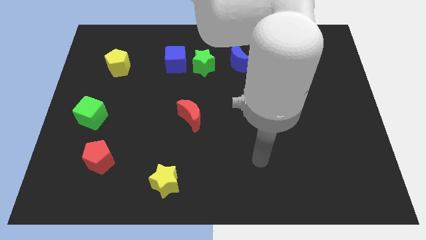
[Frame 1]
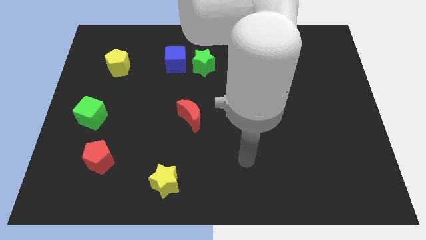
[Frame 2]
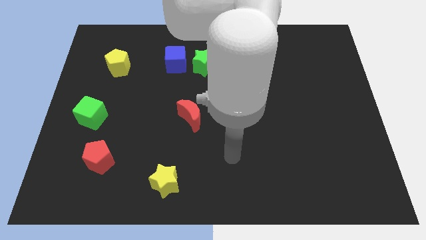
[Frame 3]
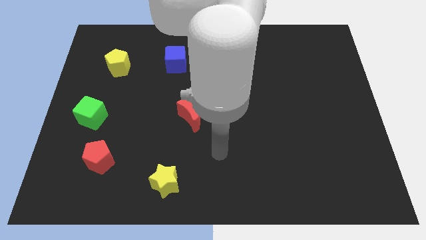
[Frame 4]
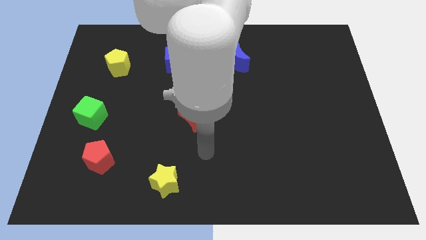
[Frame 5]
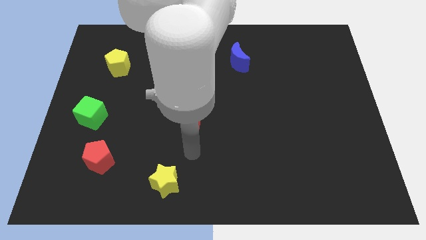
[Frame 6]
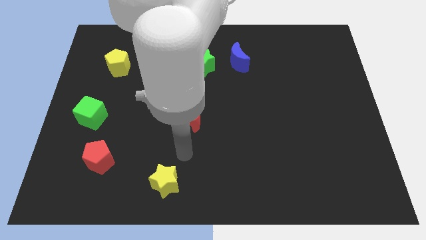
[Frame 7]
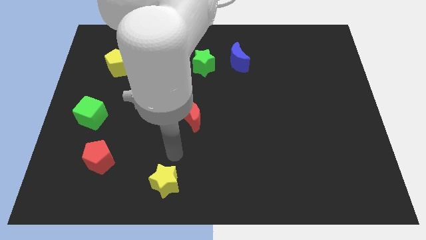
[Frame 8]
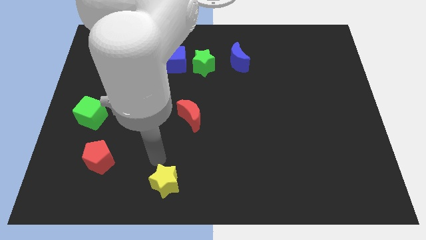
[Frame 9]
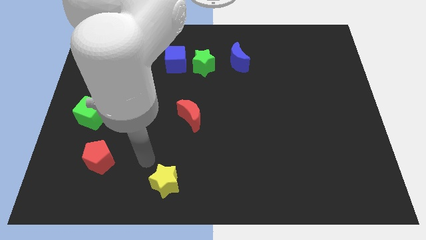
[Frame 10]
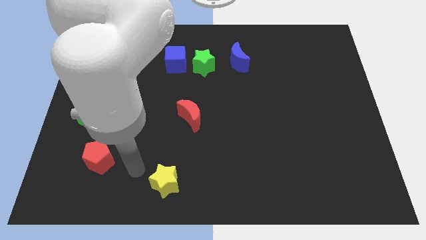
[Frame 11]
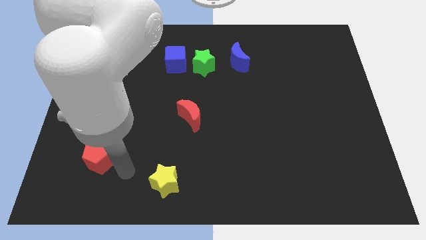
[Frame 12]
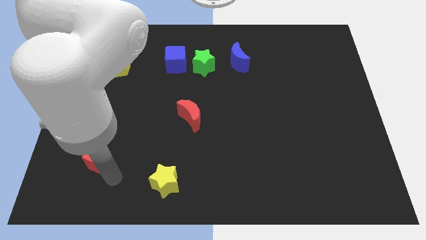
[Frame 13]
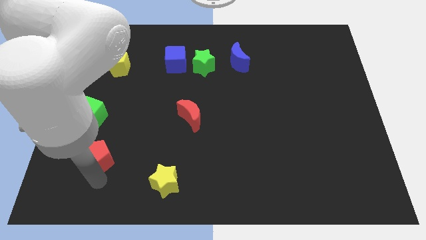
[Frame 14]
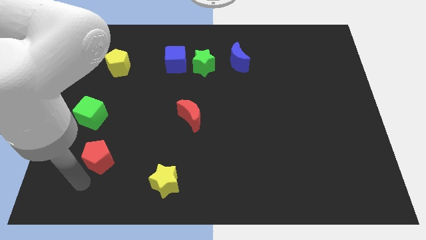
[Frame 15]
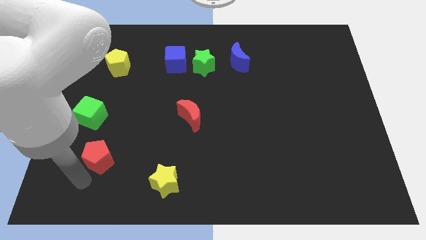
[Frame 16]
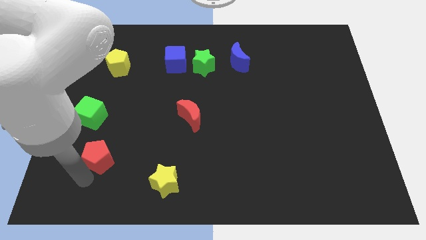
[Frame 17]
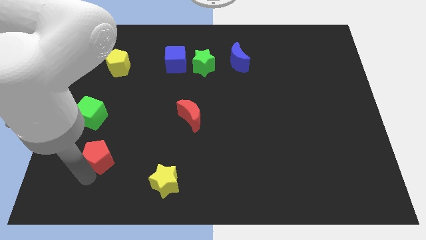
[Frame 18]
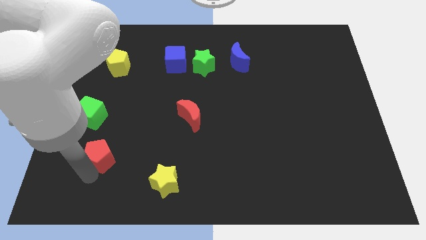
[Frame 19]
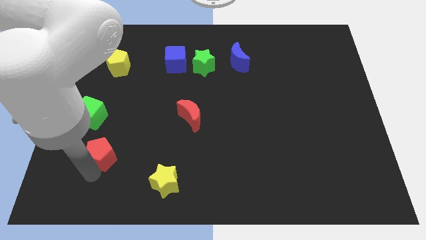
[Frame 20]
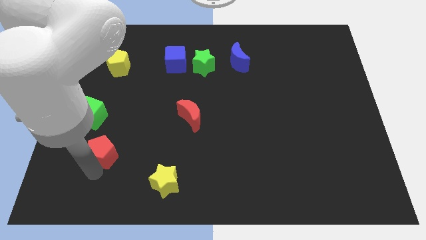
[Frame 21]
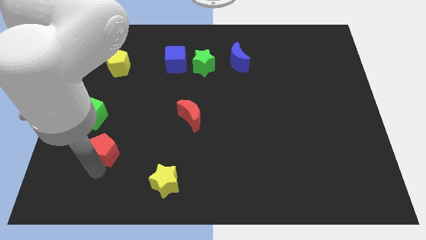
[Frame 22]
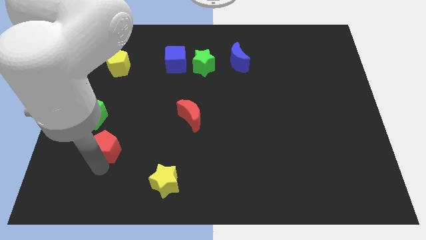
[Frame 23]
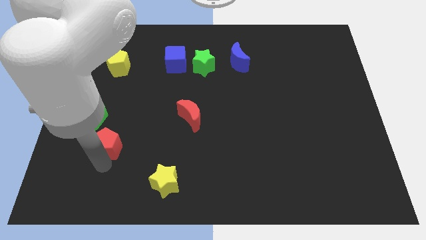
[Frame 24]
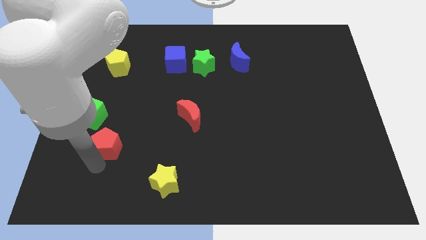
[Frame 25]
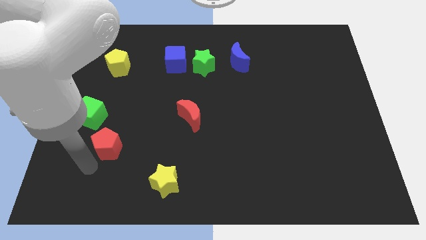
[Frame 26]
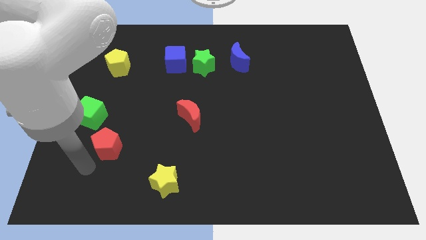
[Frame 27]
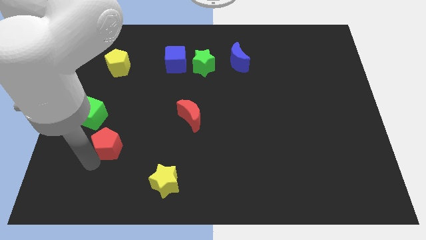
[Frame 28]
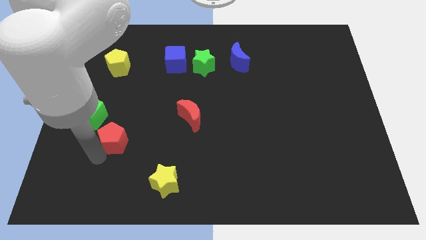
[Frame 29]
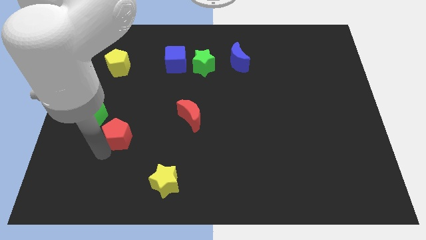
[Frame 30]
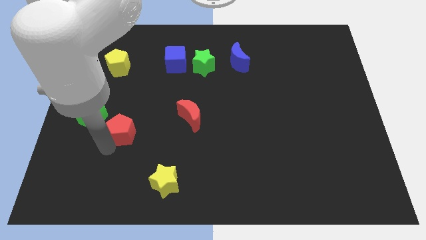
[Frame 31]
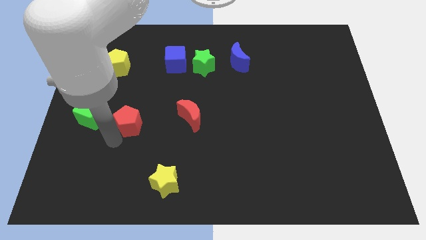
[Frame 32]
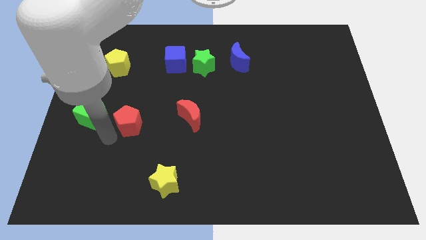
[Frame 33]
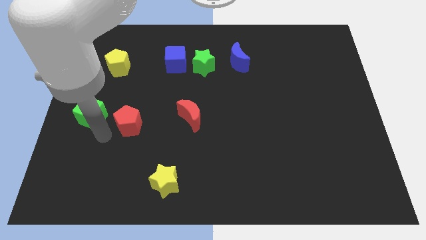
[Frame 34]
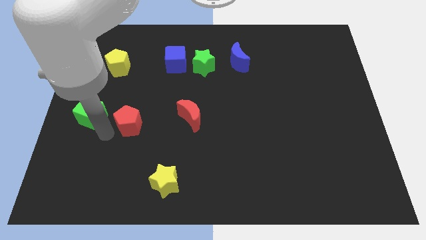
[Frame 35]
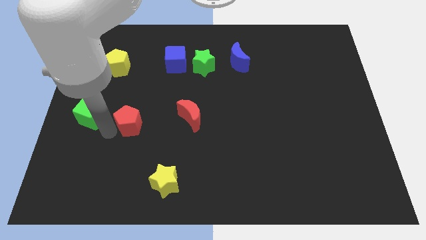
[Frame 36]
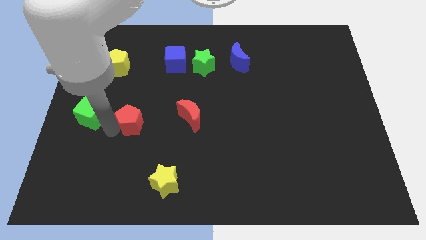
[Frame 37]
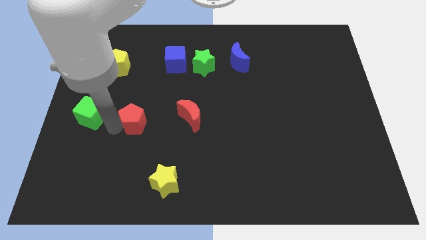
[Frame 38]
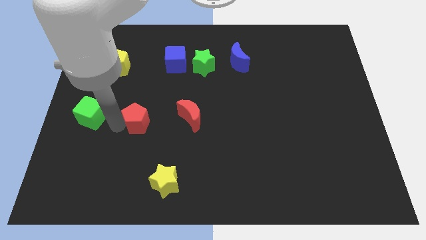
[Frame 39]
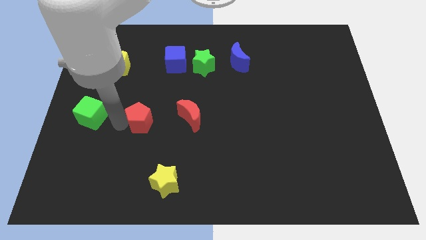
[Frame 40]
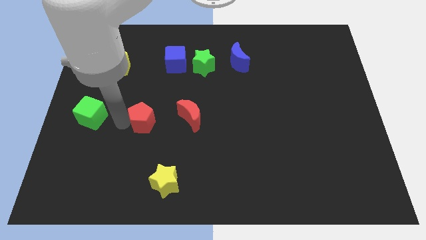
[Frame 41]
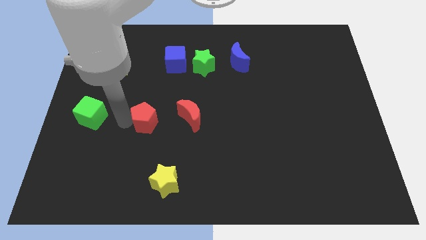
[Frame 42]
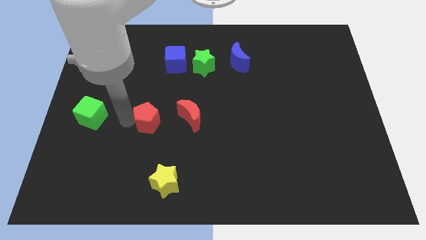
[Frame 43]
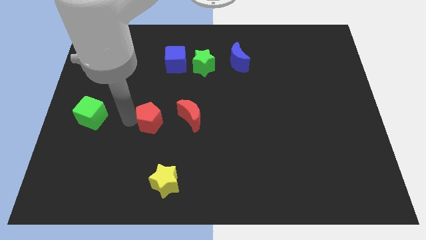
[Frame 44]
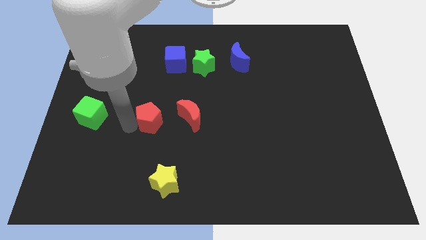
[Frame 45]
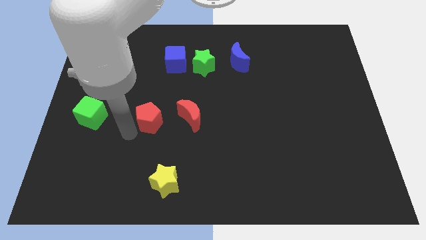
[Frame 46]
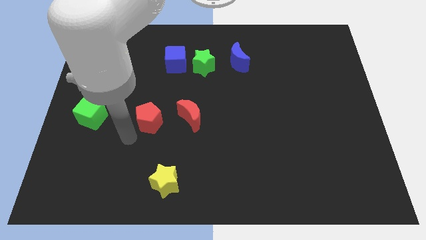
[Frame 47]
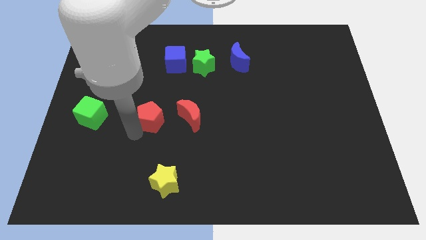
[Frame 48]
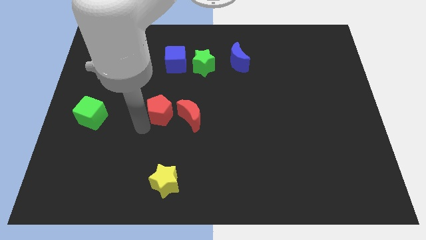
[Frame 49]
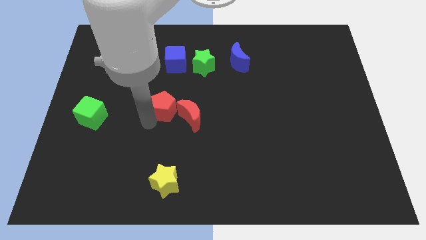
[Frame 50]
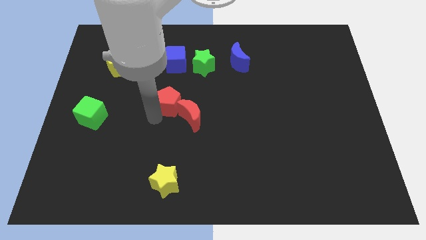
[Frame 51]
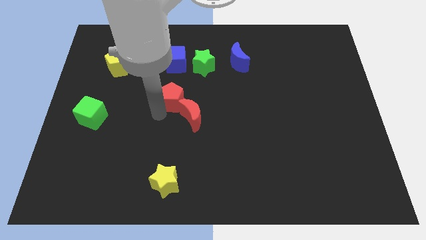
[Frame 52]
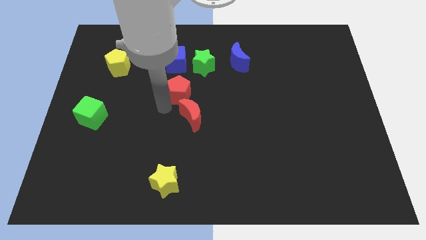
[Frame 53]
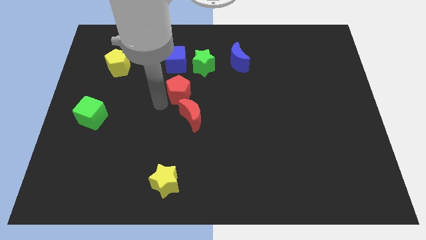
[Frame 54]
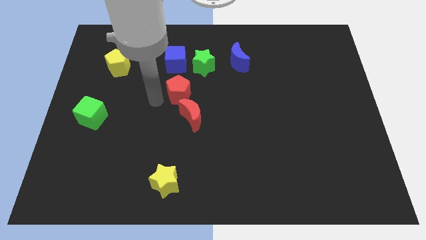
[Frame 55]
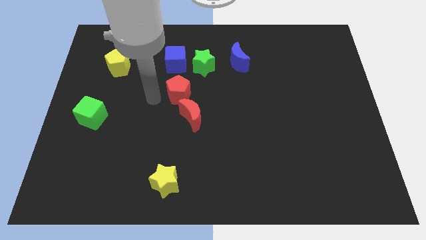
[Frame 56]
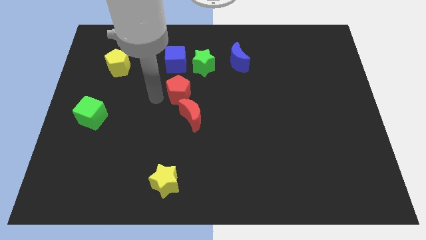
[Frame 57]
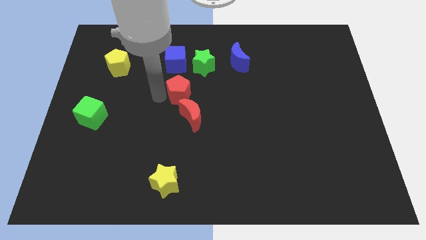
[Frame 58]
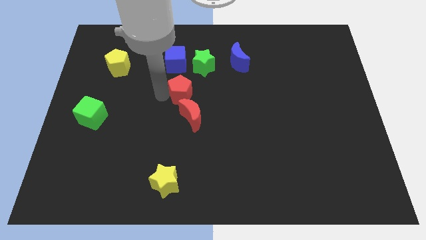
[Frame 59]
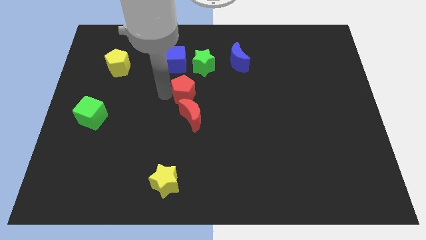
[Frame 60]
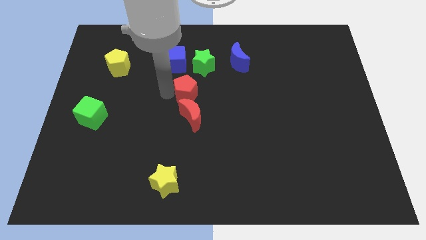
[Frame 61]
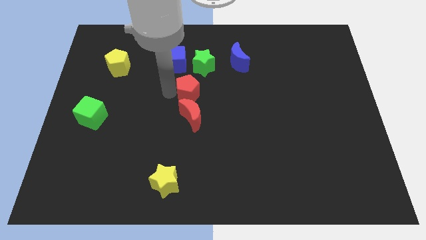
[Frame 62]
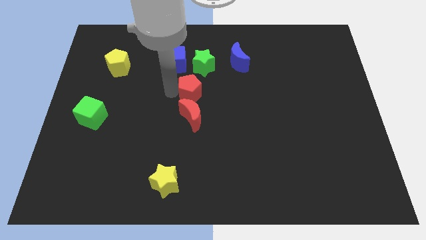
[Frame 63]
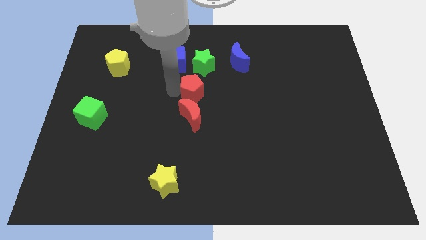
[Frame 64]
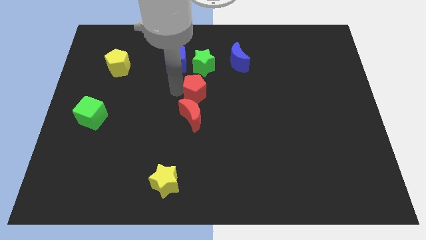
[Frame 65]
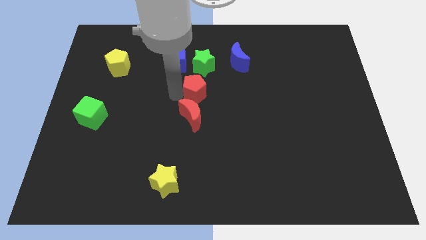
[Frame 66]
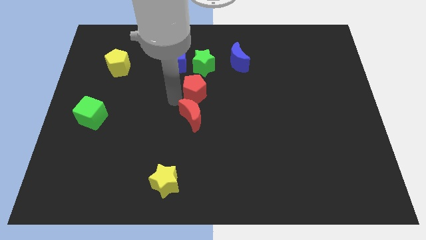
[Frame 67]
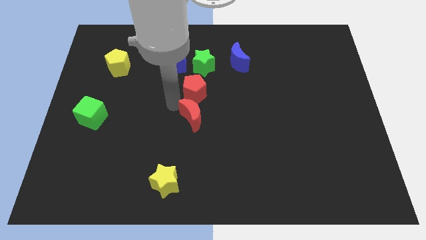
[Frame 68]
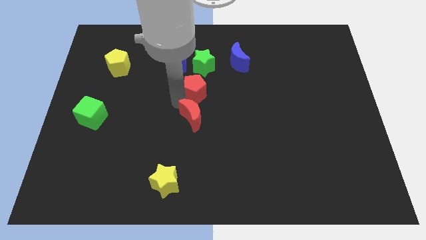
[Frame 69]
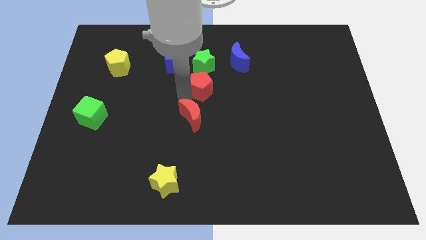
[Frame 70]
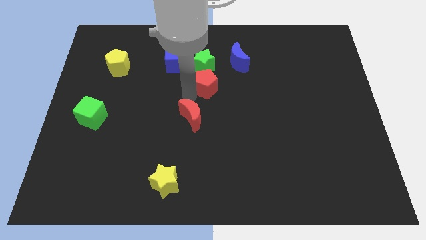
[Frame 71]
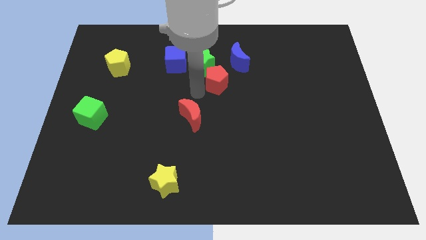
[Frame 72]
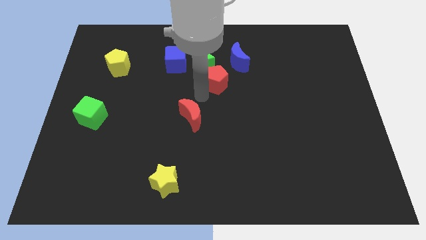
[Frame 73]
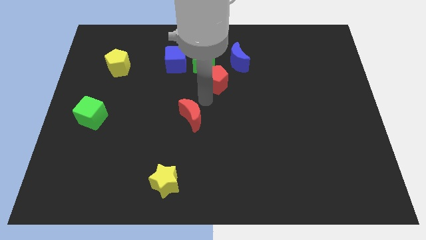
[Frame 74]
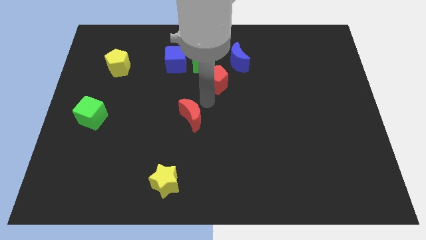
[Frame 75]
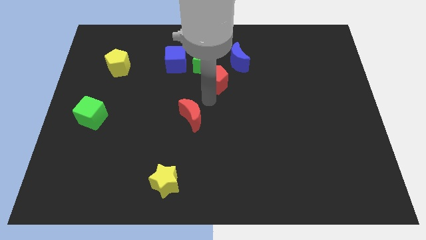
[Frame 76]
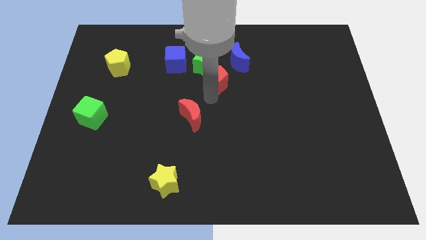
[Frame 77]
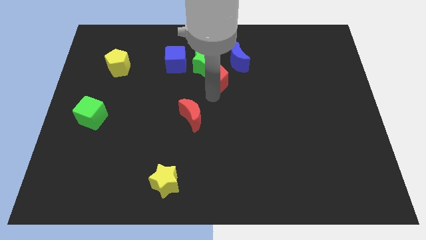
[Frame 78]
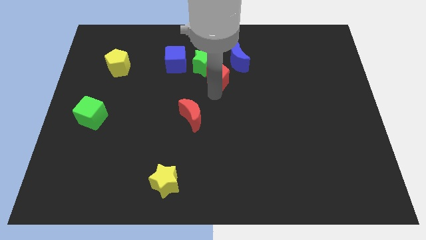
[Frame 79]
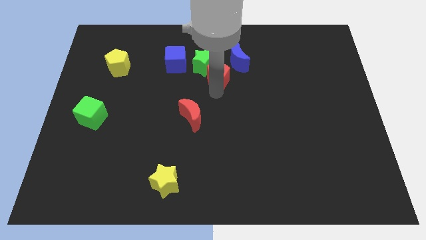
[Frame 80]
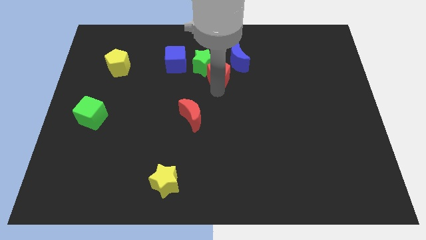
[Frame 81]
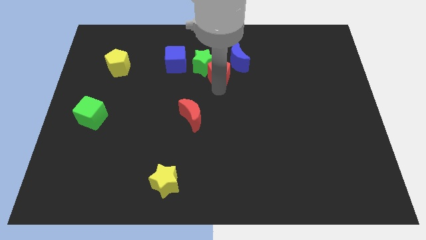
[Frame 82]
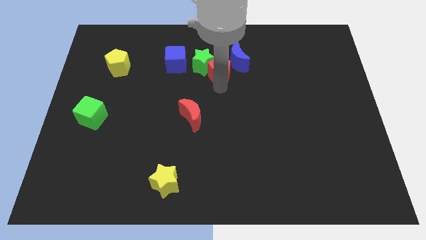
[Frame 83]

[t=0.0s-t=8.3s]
move the red pentagon next to the blue moon
